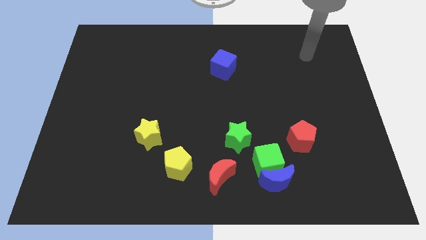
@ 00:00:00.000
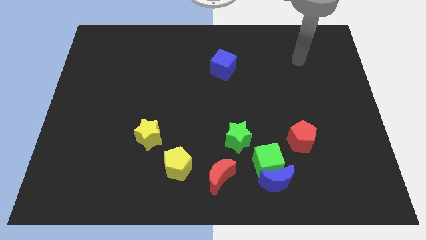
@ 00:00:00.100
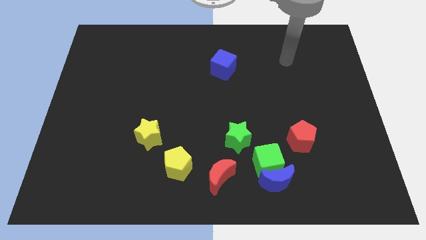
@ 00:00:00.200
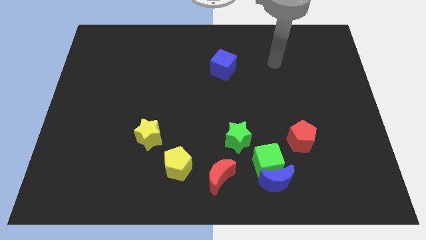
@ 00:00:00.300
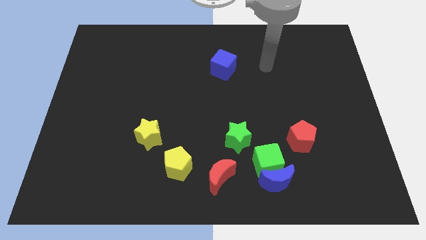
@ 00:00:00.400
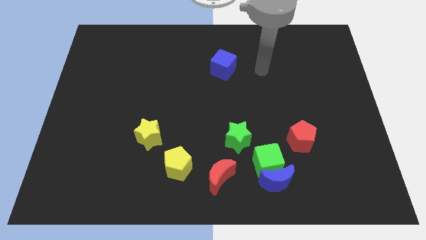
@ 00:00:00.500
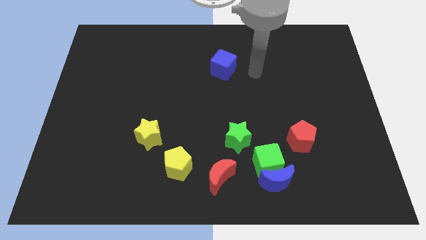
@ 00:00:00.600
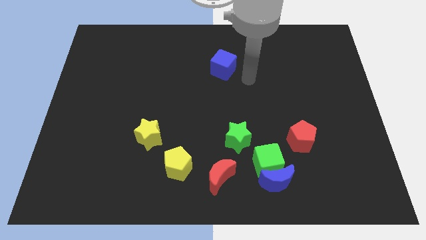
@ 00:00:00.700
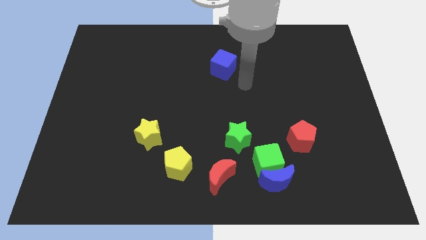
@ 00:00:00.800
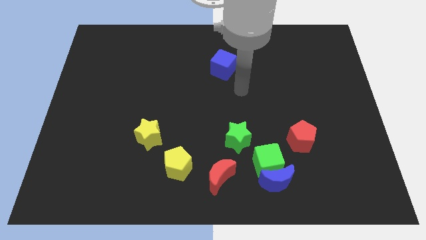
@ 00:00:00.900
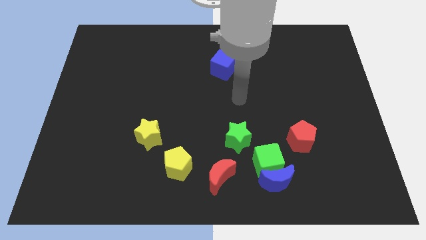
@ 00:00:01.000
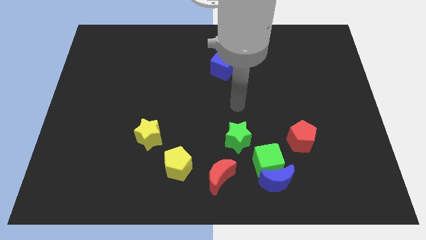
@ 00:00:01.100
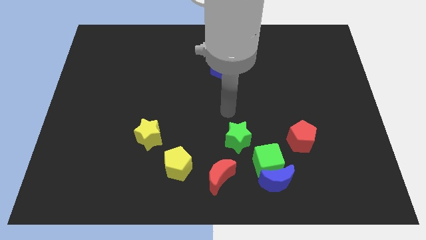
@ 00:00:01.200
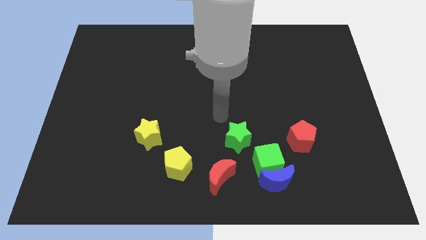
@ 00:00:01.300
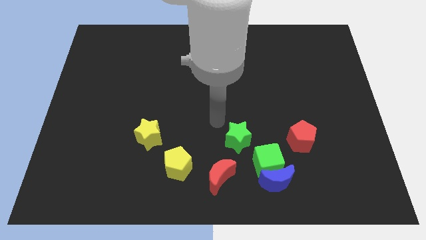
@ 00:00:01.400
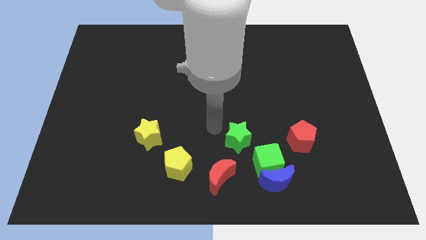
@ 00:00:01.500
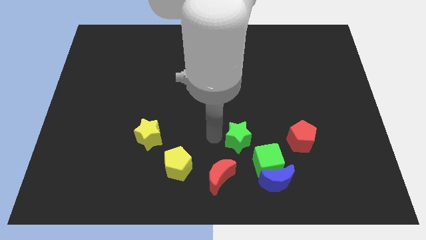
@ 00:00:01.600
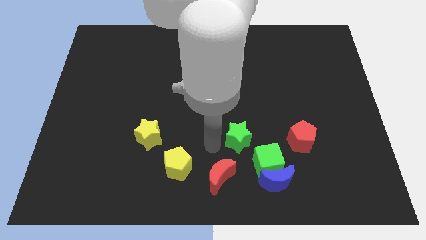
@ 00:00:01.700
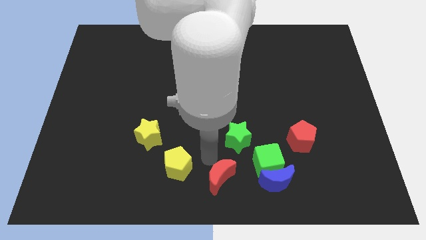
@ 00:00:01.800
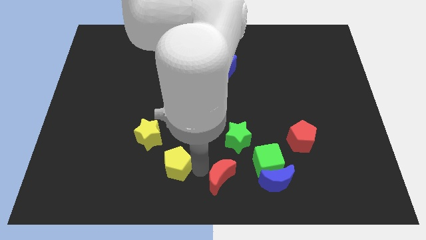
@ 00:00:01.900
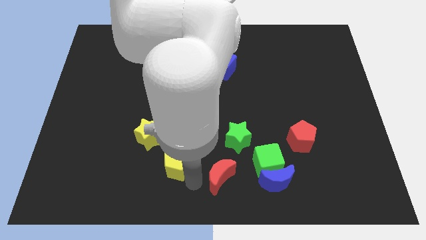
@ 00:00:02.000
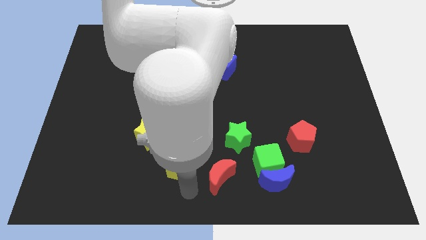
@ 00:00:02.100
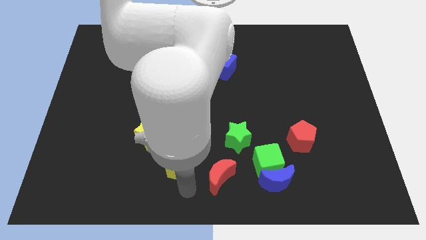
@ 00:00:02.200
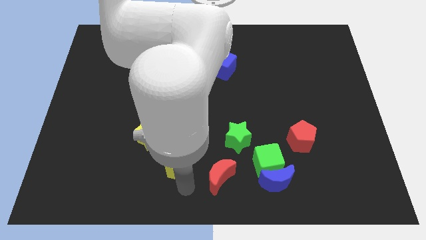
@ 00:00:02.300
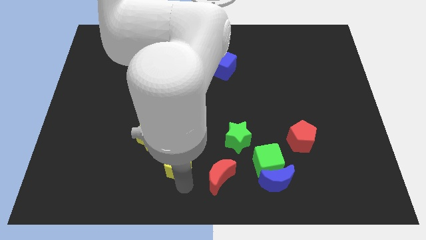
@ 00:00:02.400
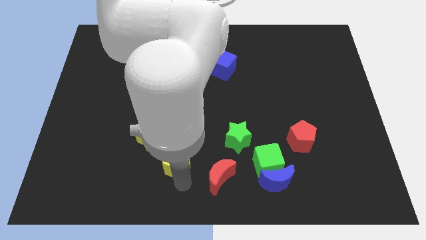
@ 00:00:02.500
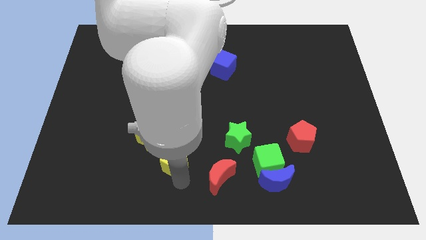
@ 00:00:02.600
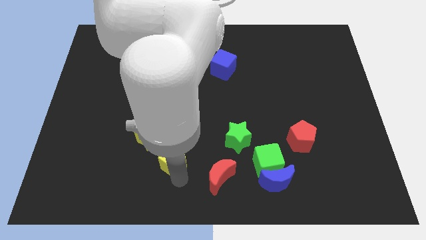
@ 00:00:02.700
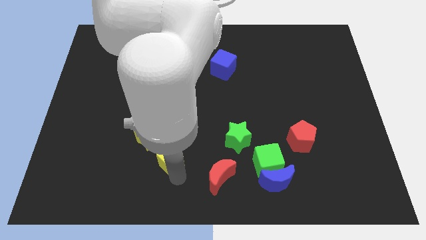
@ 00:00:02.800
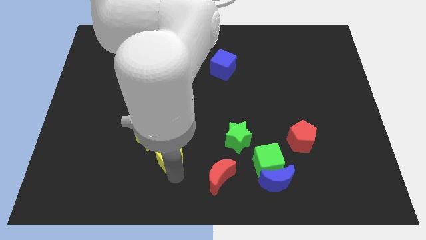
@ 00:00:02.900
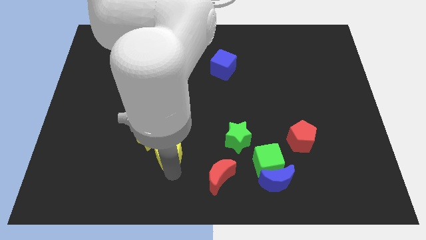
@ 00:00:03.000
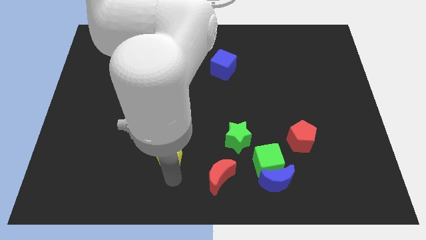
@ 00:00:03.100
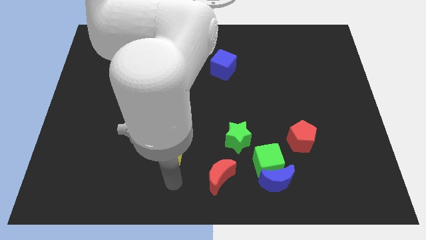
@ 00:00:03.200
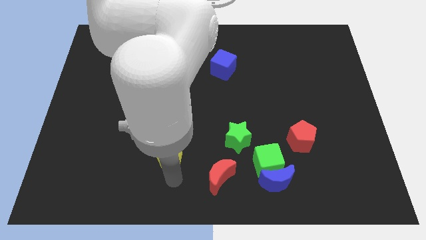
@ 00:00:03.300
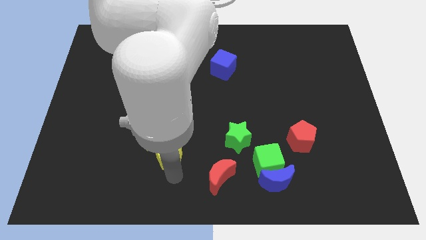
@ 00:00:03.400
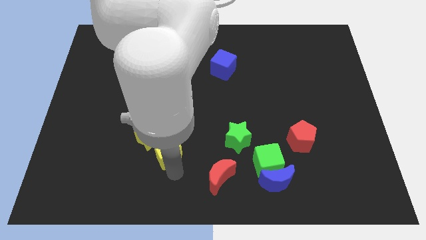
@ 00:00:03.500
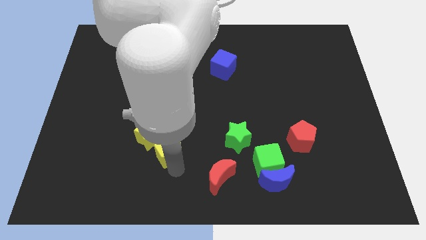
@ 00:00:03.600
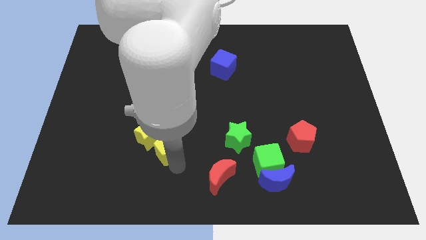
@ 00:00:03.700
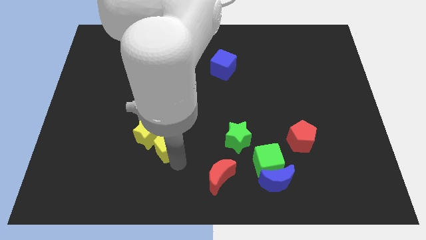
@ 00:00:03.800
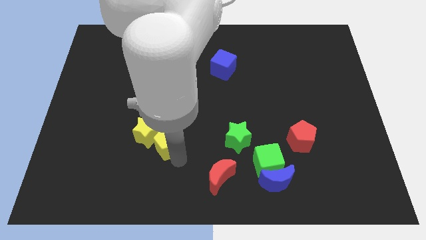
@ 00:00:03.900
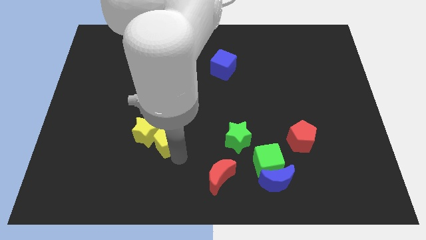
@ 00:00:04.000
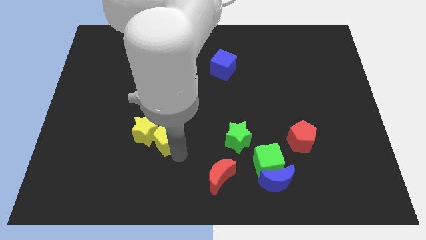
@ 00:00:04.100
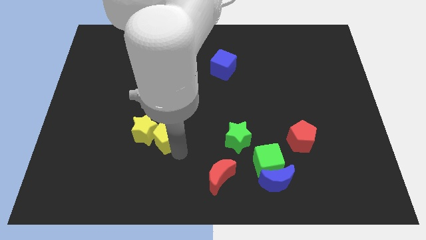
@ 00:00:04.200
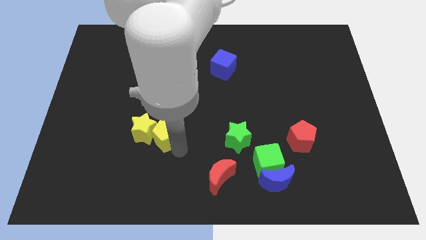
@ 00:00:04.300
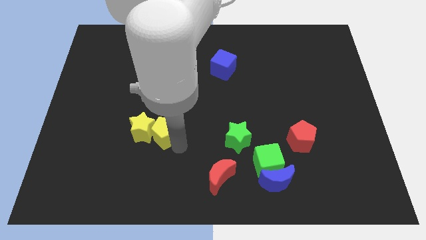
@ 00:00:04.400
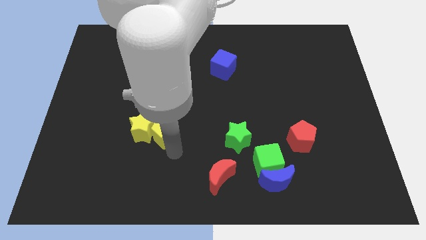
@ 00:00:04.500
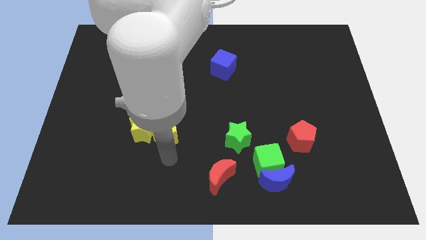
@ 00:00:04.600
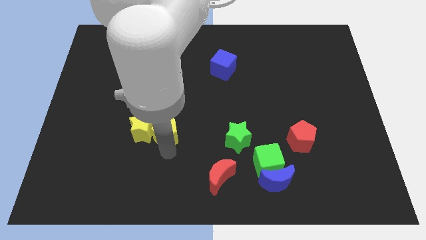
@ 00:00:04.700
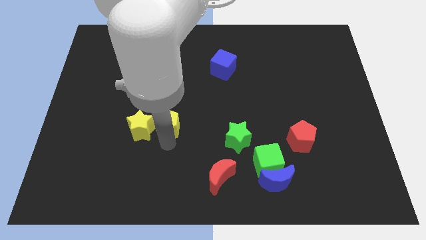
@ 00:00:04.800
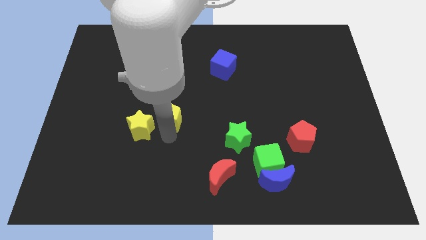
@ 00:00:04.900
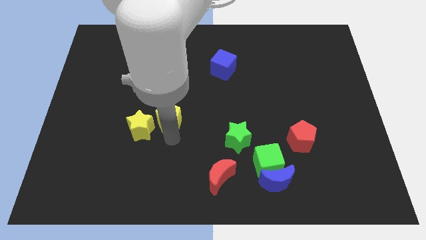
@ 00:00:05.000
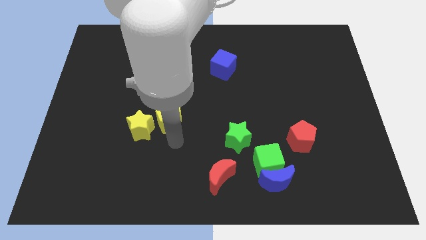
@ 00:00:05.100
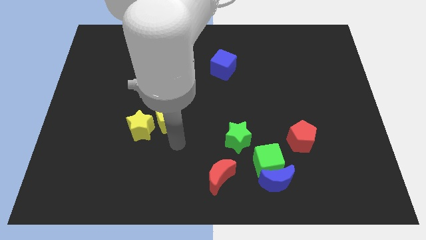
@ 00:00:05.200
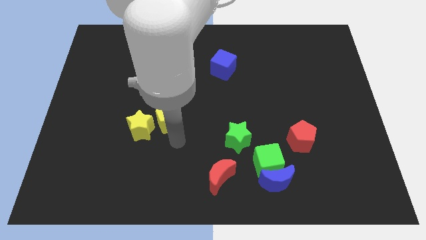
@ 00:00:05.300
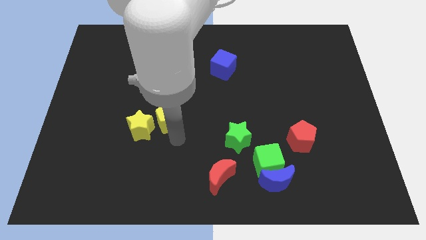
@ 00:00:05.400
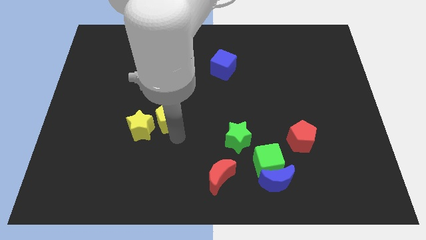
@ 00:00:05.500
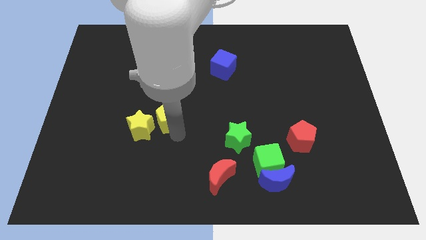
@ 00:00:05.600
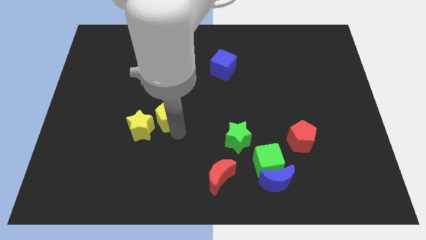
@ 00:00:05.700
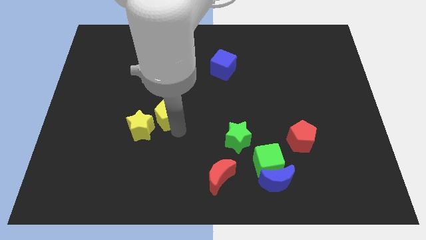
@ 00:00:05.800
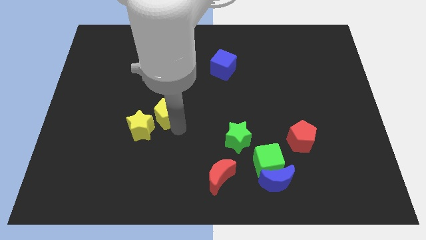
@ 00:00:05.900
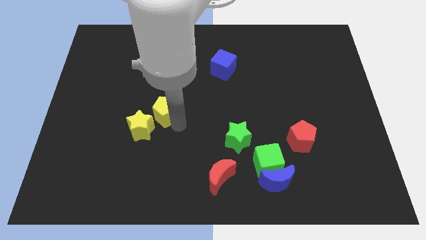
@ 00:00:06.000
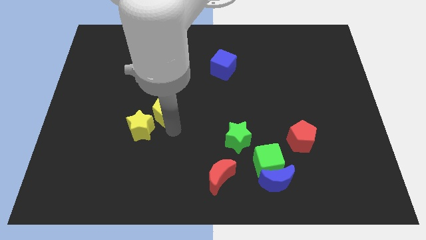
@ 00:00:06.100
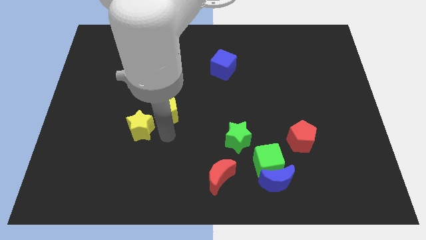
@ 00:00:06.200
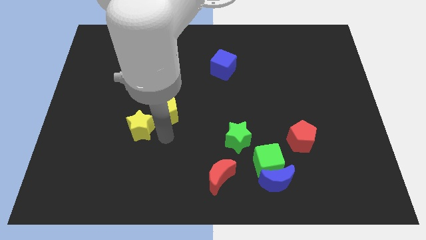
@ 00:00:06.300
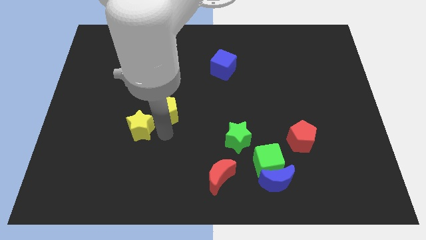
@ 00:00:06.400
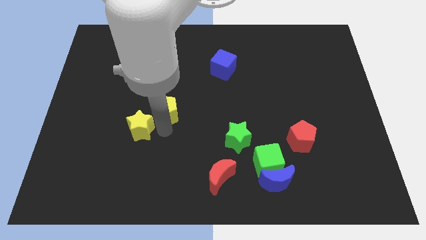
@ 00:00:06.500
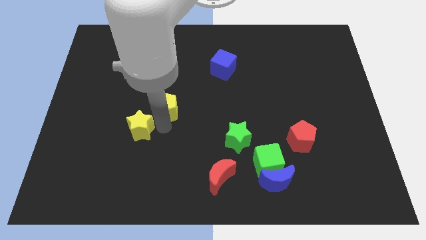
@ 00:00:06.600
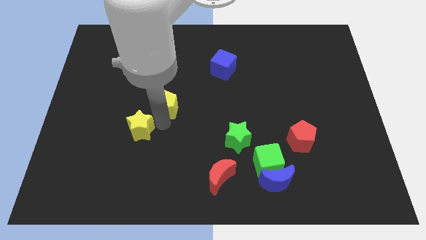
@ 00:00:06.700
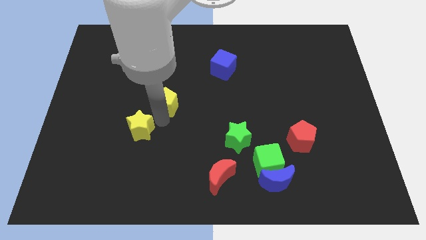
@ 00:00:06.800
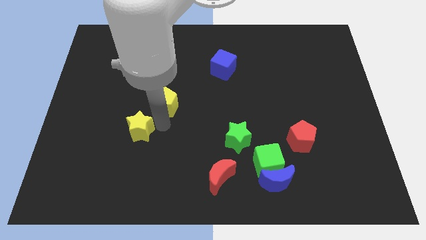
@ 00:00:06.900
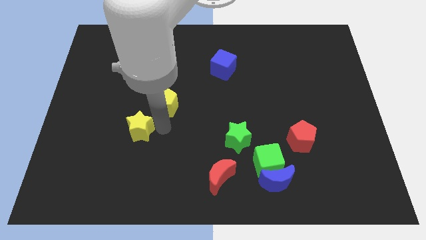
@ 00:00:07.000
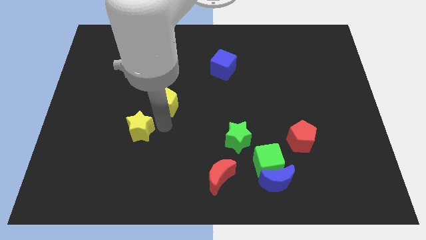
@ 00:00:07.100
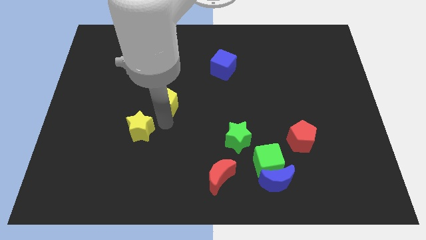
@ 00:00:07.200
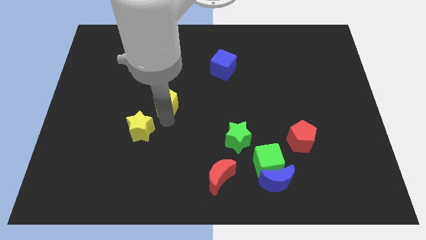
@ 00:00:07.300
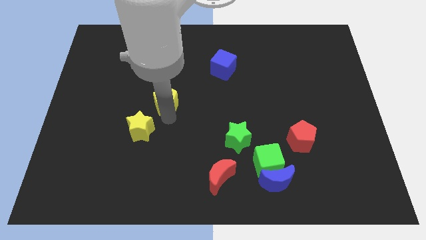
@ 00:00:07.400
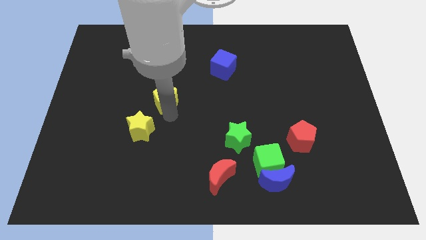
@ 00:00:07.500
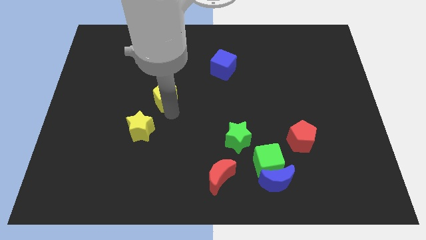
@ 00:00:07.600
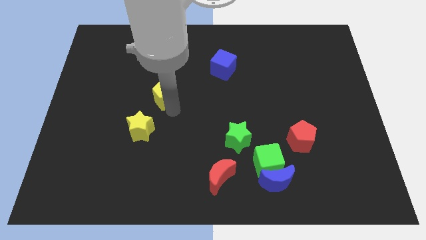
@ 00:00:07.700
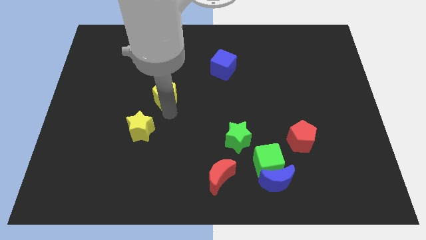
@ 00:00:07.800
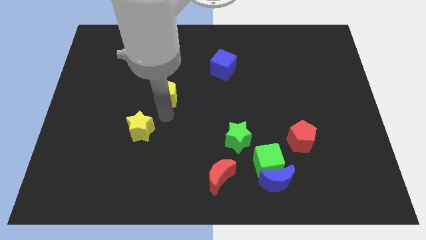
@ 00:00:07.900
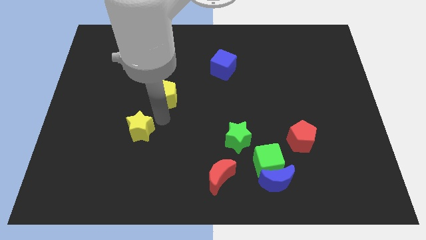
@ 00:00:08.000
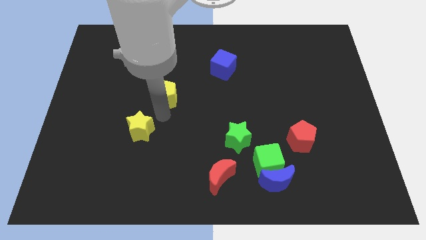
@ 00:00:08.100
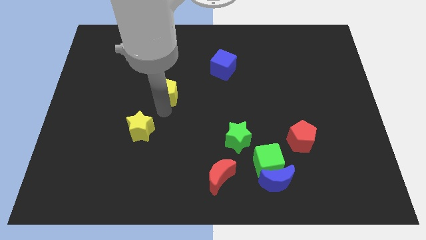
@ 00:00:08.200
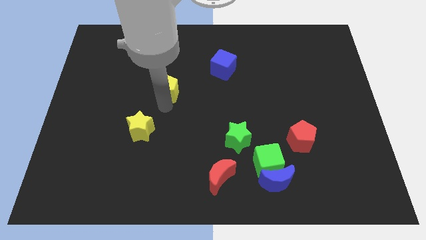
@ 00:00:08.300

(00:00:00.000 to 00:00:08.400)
push the yellow pentagon upwards

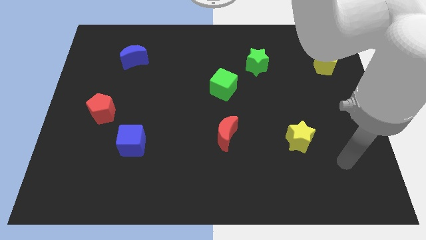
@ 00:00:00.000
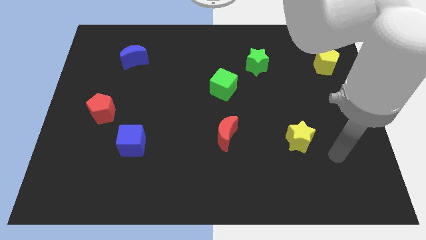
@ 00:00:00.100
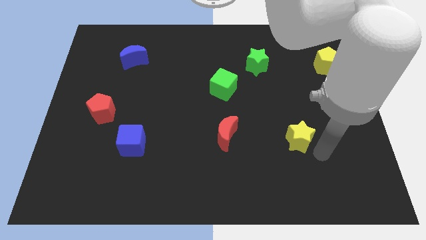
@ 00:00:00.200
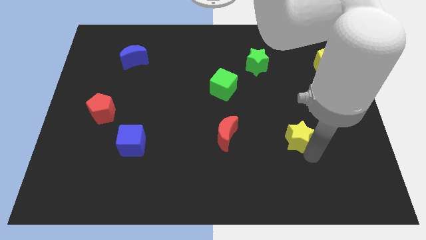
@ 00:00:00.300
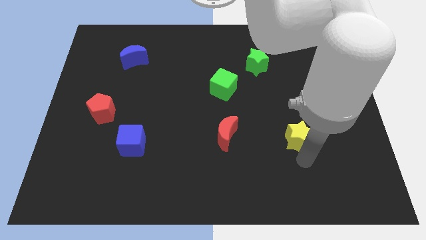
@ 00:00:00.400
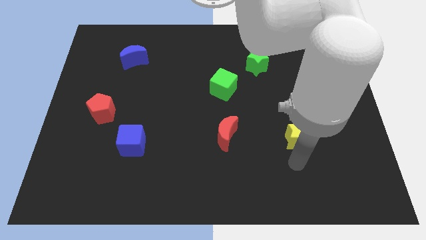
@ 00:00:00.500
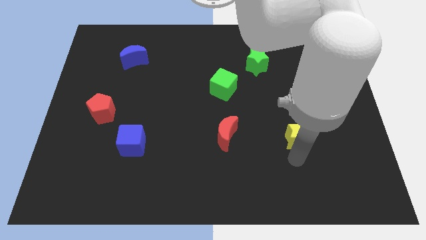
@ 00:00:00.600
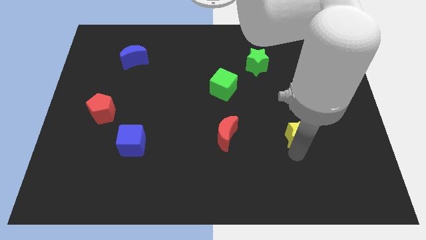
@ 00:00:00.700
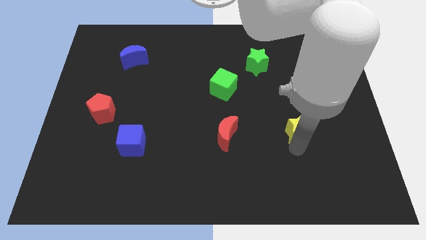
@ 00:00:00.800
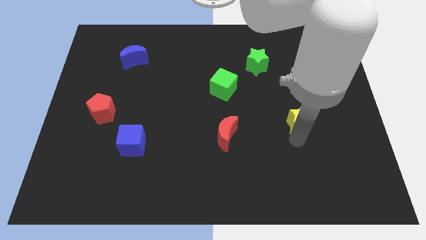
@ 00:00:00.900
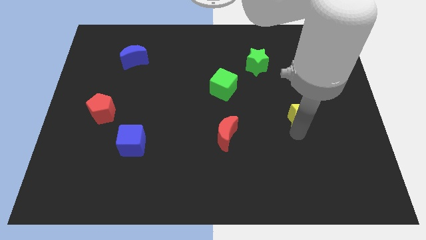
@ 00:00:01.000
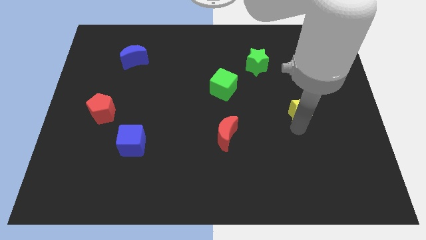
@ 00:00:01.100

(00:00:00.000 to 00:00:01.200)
push the yellow star upwards a little
